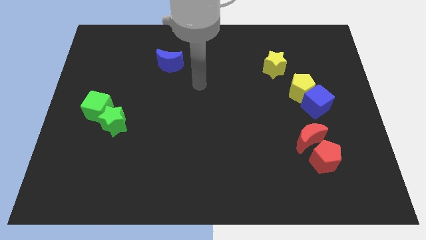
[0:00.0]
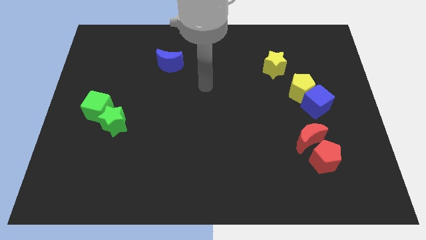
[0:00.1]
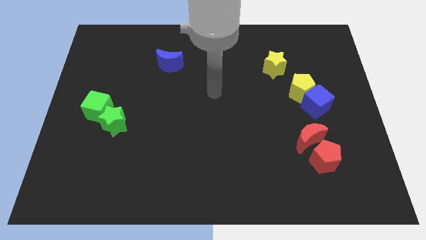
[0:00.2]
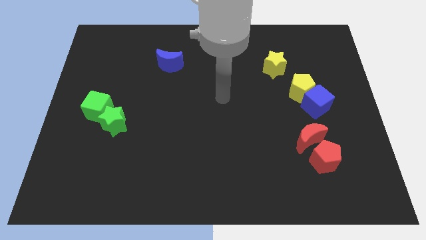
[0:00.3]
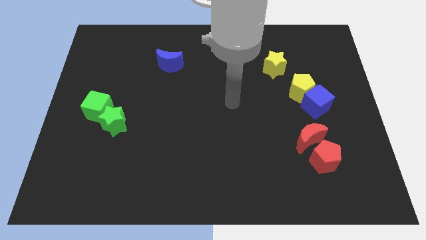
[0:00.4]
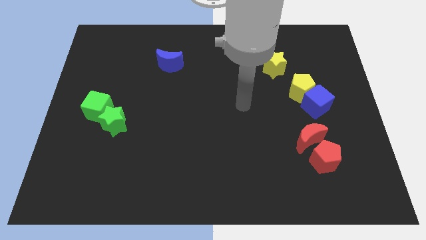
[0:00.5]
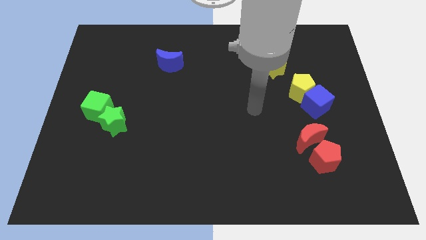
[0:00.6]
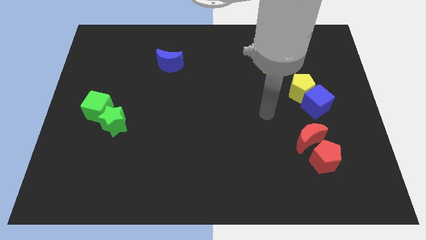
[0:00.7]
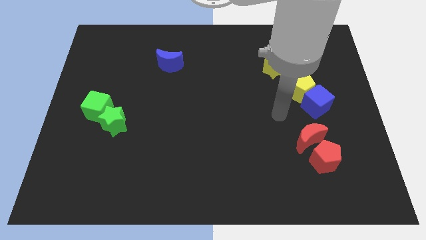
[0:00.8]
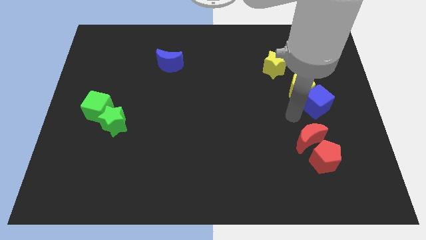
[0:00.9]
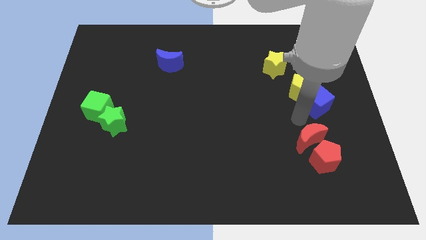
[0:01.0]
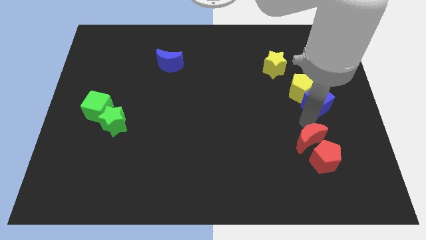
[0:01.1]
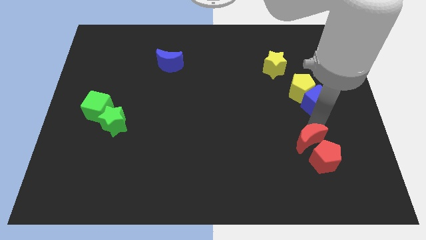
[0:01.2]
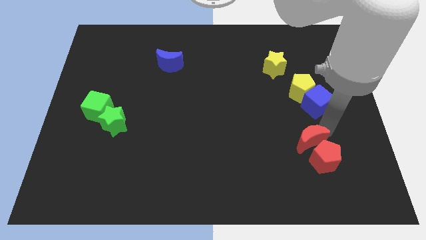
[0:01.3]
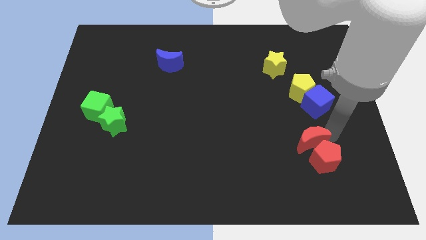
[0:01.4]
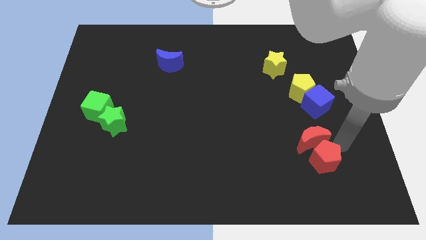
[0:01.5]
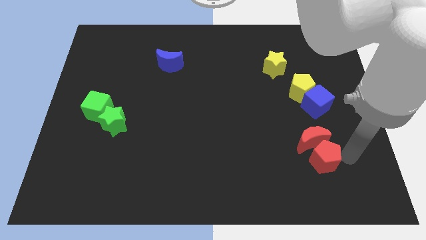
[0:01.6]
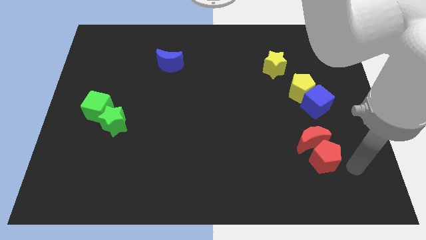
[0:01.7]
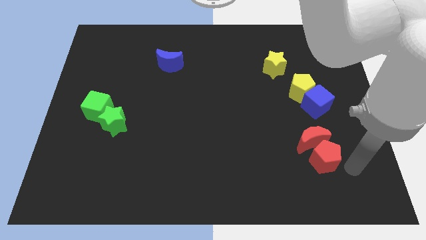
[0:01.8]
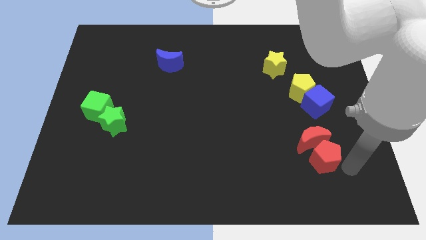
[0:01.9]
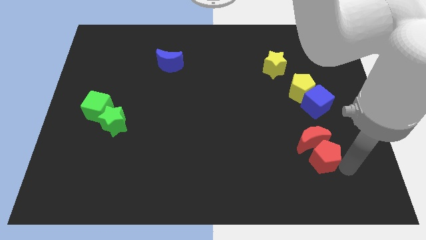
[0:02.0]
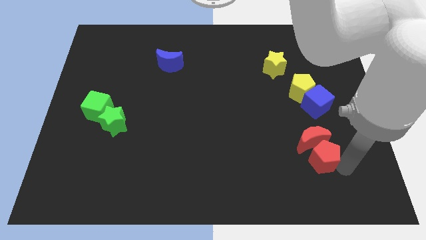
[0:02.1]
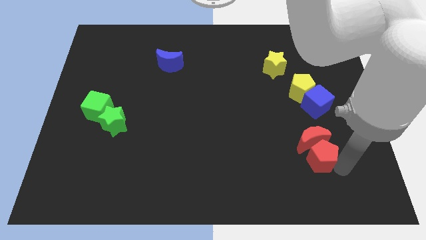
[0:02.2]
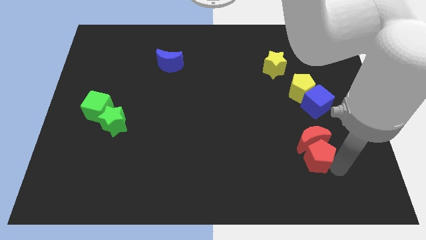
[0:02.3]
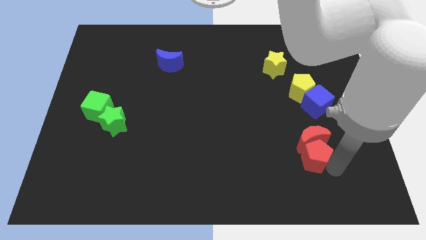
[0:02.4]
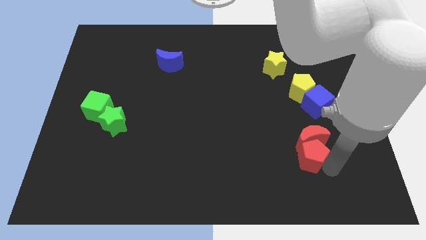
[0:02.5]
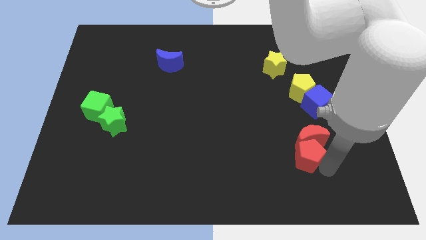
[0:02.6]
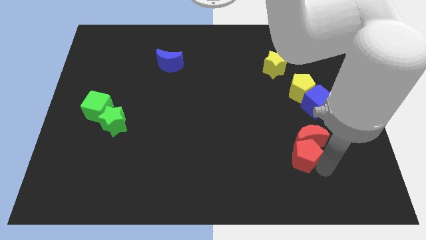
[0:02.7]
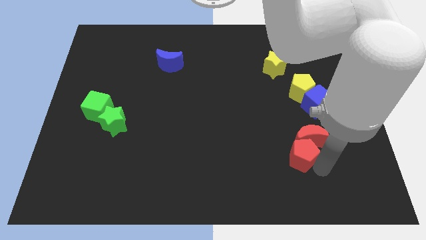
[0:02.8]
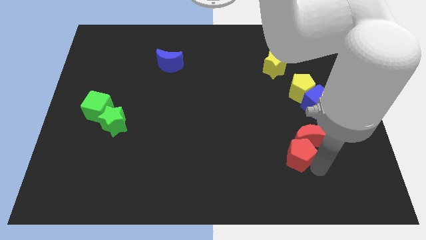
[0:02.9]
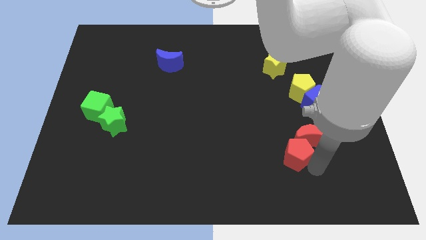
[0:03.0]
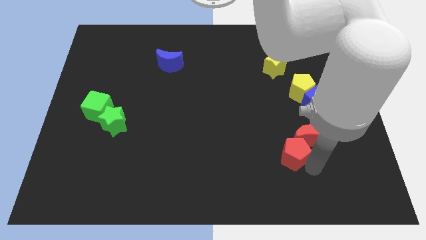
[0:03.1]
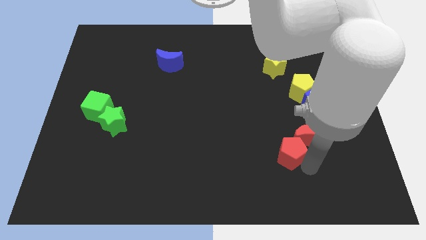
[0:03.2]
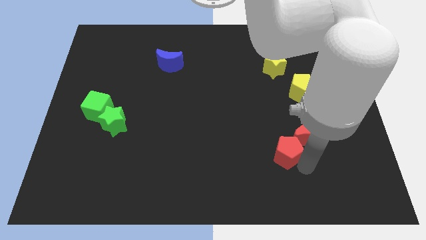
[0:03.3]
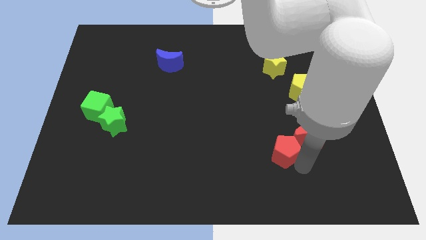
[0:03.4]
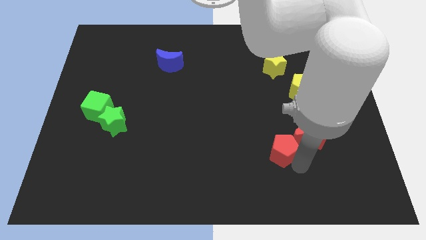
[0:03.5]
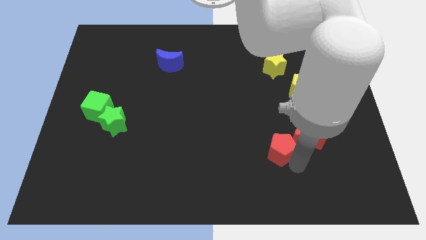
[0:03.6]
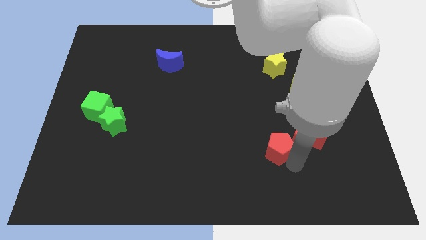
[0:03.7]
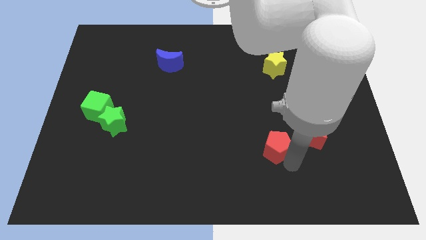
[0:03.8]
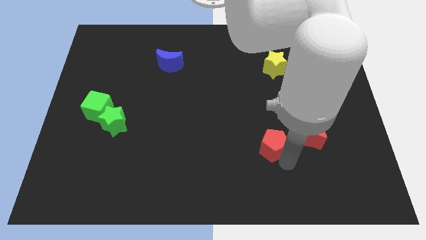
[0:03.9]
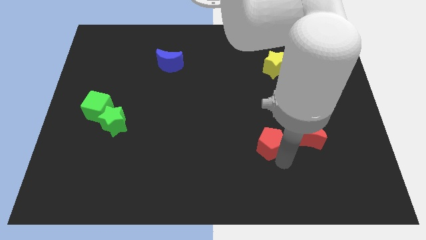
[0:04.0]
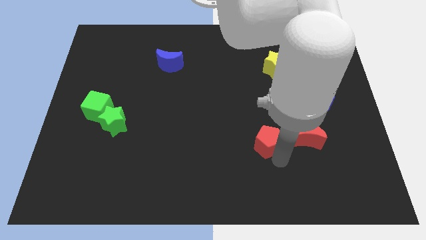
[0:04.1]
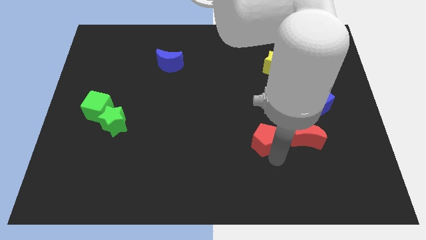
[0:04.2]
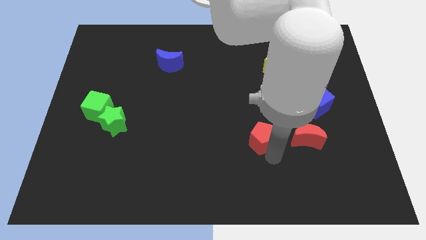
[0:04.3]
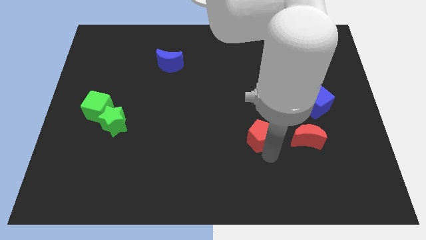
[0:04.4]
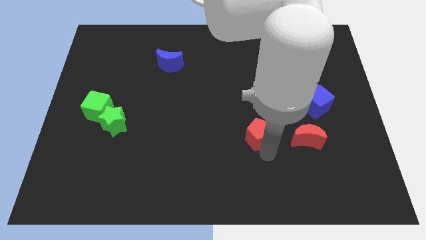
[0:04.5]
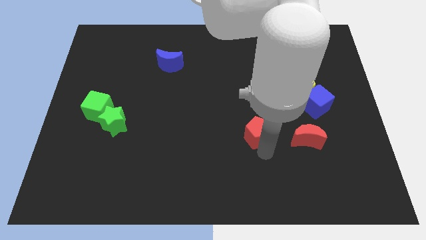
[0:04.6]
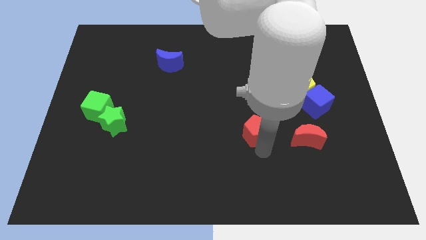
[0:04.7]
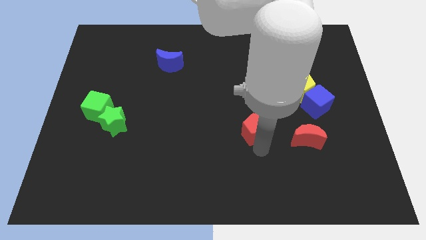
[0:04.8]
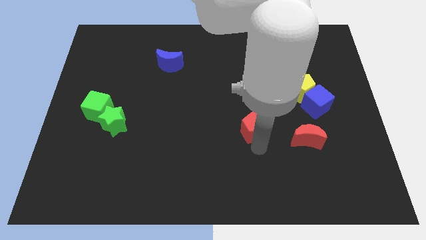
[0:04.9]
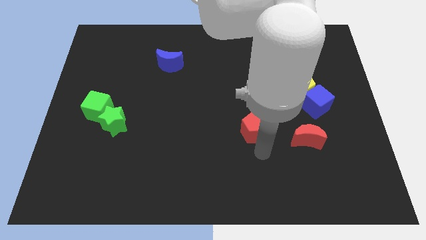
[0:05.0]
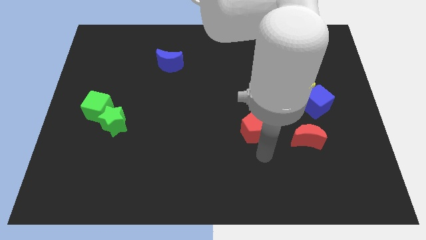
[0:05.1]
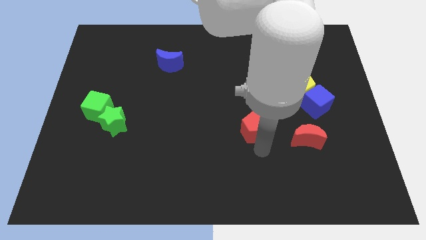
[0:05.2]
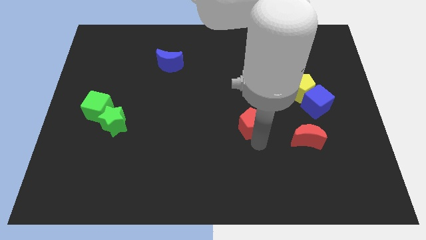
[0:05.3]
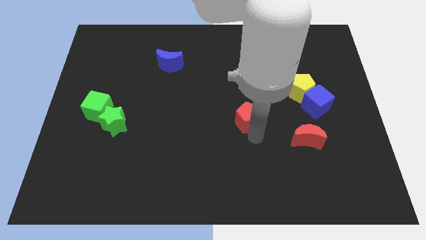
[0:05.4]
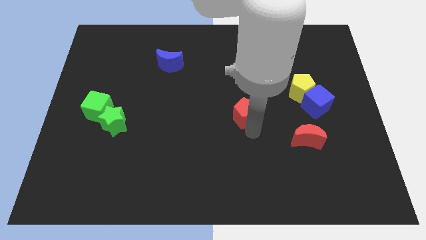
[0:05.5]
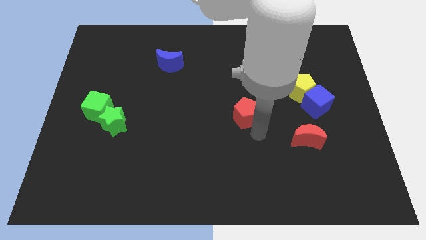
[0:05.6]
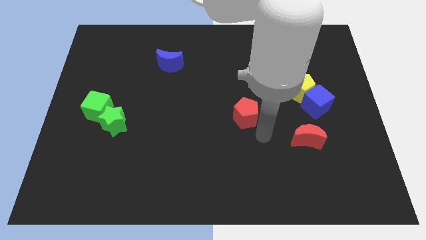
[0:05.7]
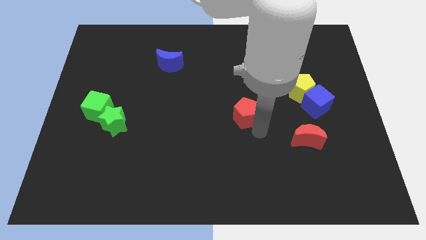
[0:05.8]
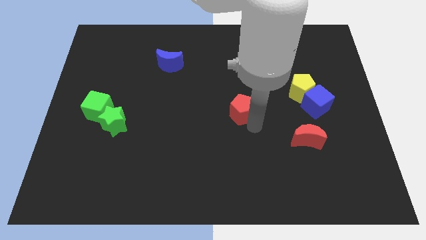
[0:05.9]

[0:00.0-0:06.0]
slide the red pentagon upwards and left diagonally

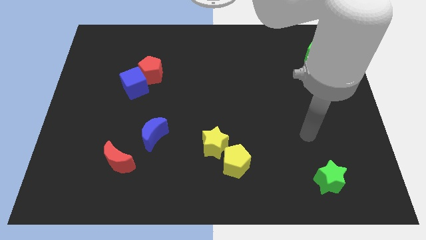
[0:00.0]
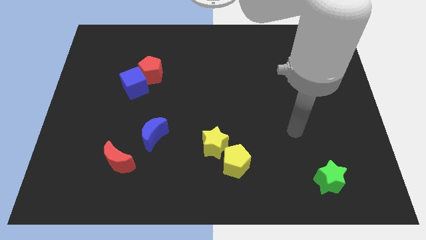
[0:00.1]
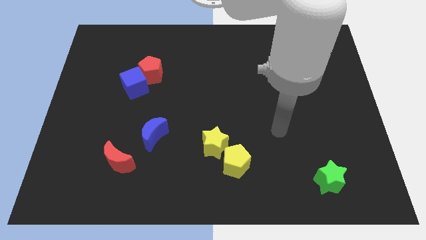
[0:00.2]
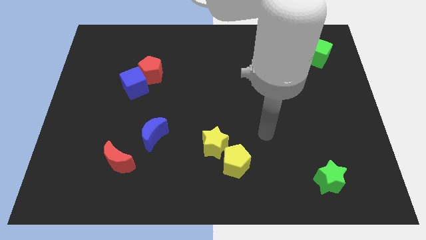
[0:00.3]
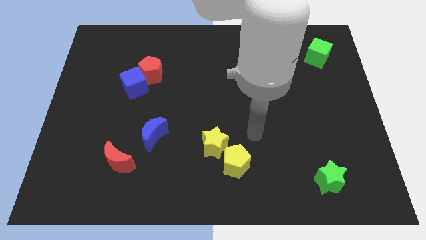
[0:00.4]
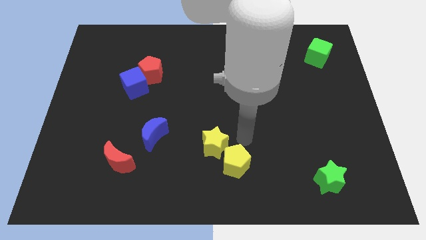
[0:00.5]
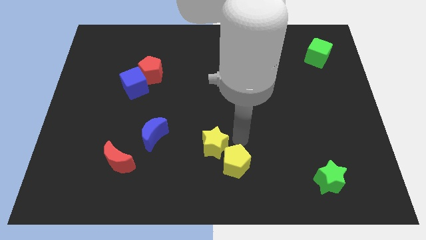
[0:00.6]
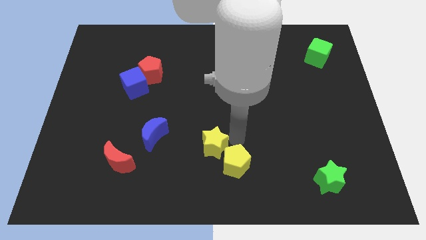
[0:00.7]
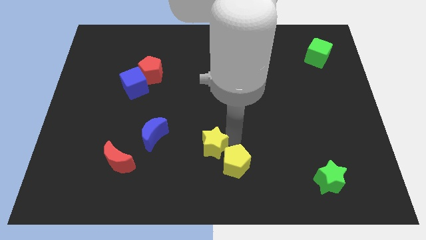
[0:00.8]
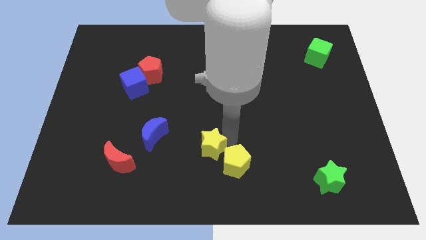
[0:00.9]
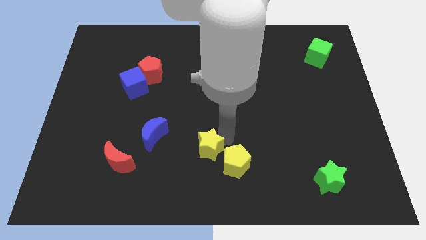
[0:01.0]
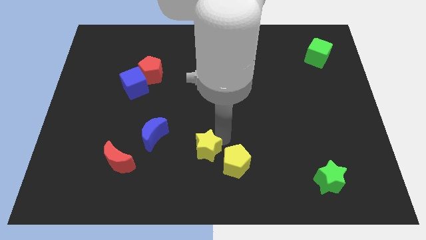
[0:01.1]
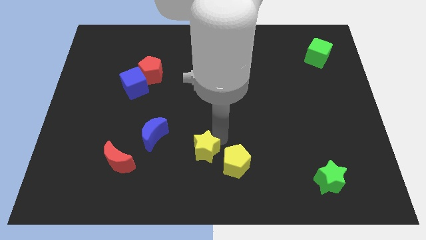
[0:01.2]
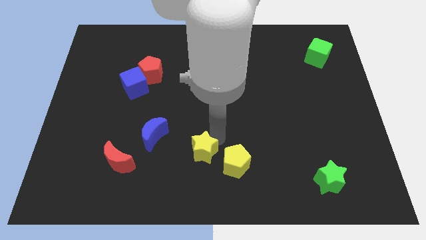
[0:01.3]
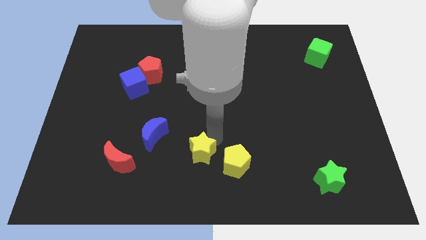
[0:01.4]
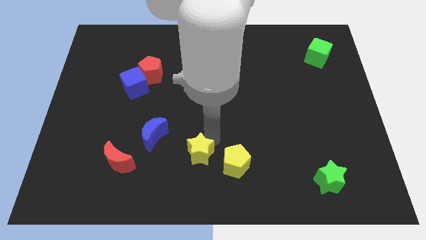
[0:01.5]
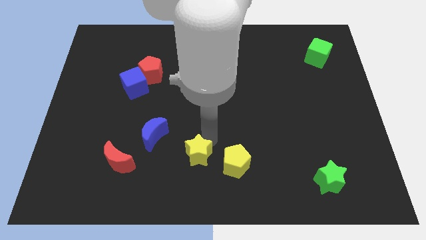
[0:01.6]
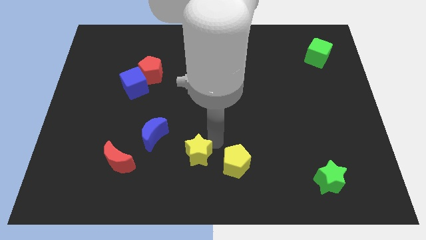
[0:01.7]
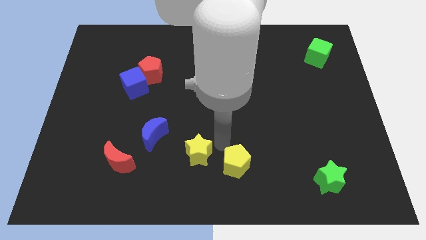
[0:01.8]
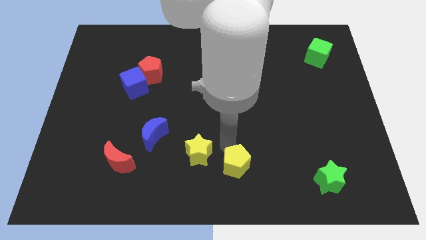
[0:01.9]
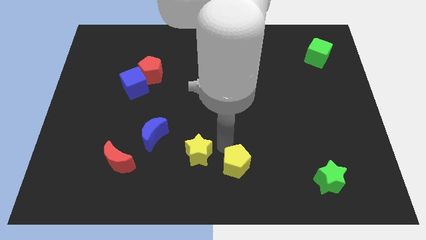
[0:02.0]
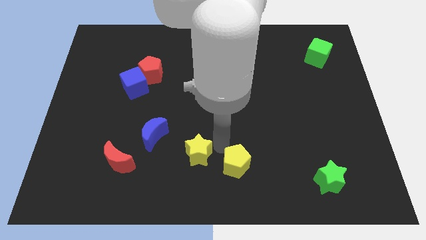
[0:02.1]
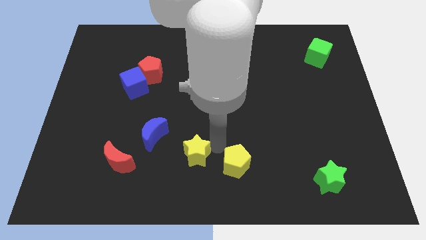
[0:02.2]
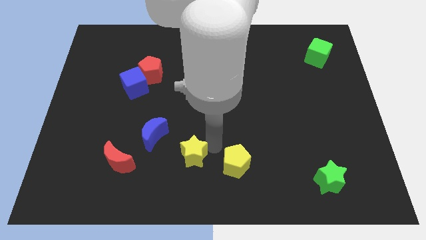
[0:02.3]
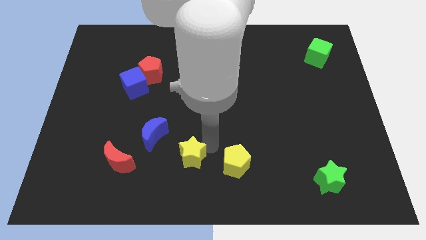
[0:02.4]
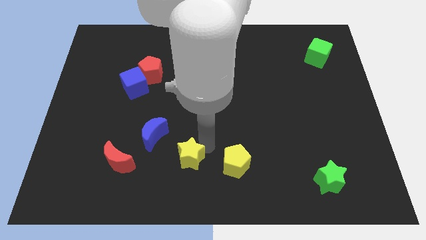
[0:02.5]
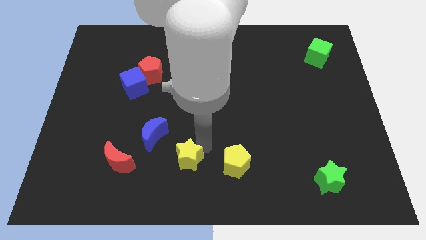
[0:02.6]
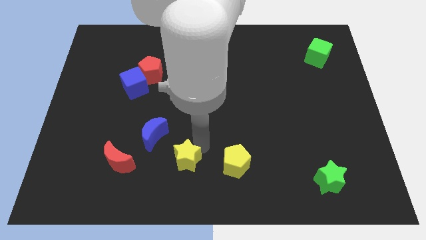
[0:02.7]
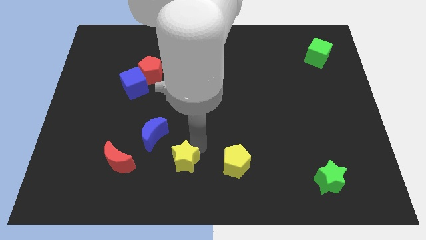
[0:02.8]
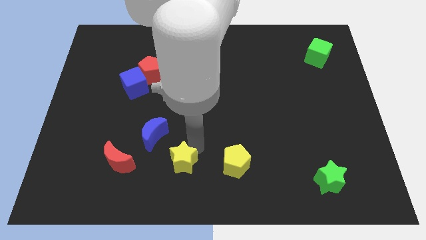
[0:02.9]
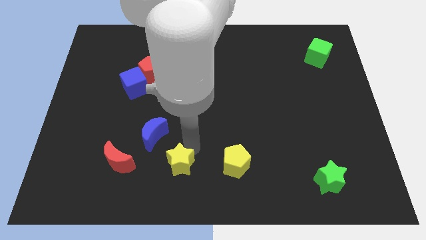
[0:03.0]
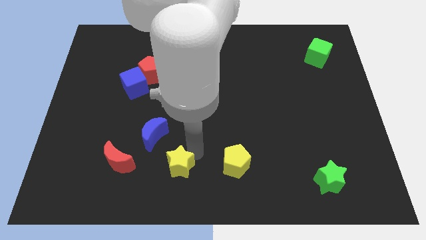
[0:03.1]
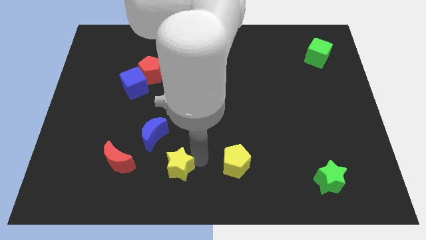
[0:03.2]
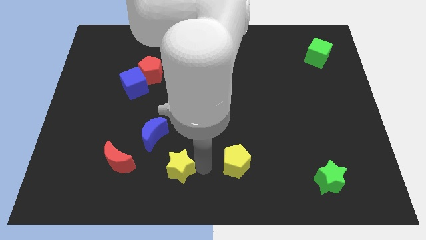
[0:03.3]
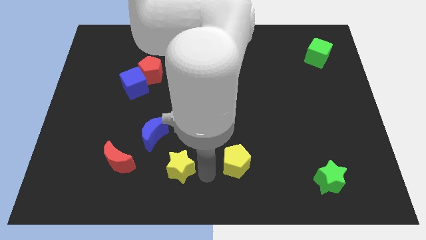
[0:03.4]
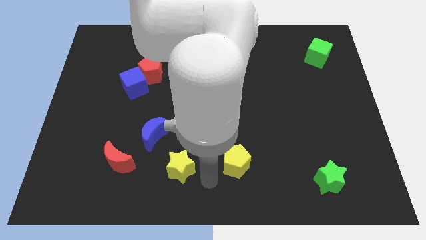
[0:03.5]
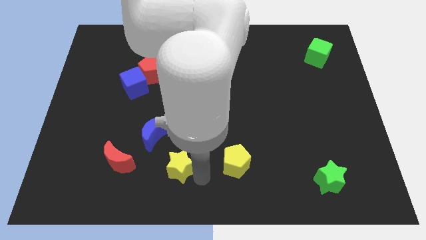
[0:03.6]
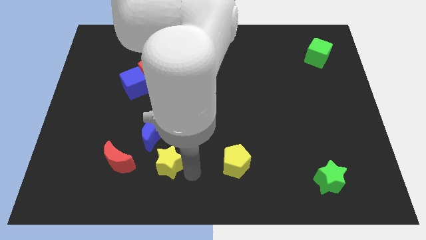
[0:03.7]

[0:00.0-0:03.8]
push the yellow star slightly left
